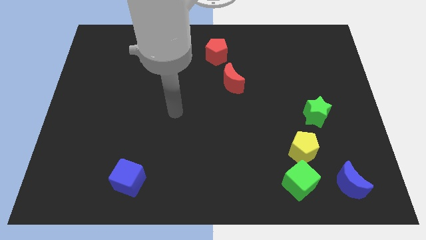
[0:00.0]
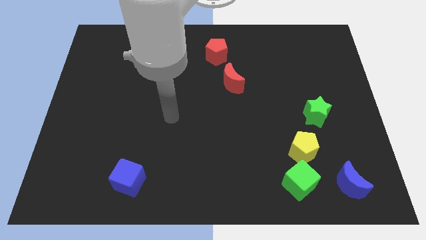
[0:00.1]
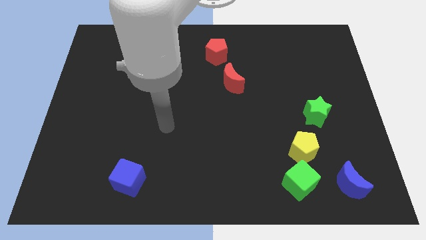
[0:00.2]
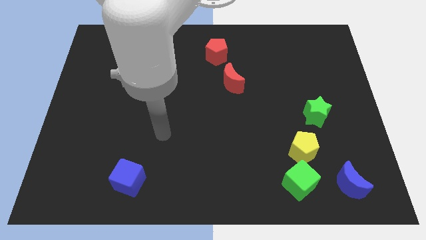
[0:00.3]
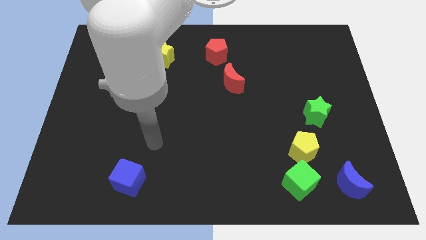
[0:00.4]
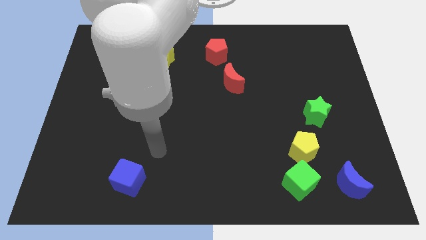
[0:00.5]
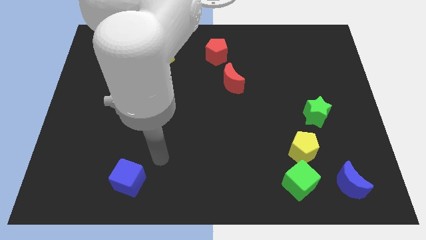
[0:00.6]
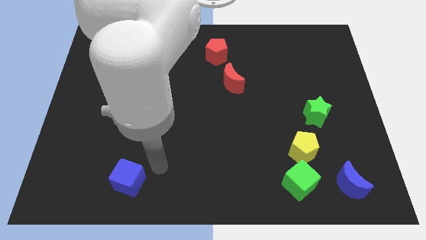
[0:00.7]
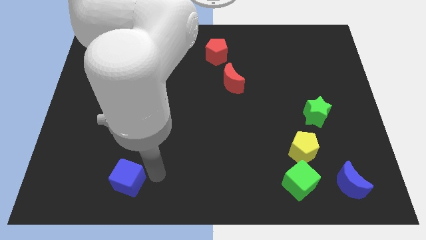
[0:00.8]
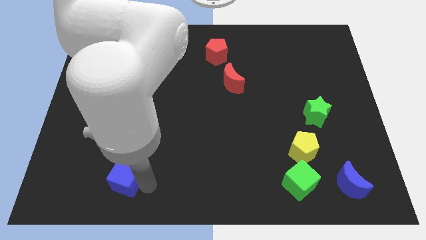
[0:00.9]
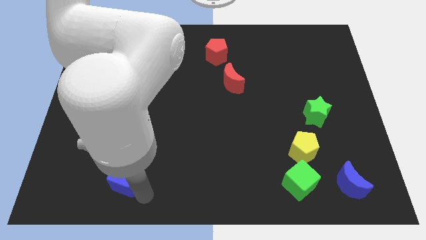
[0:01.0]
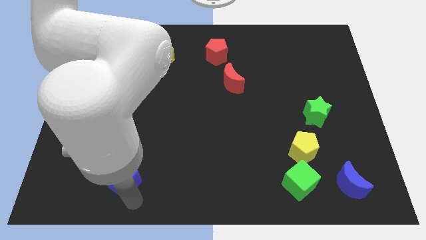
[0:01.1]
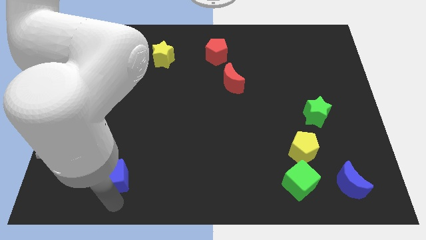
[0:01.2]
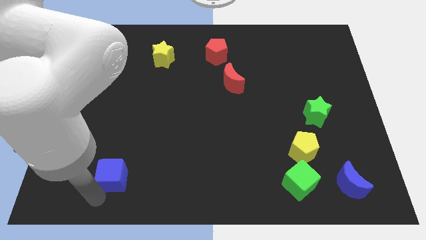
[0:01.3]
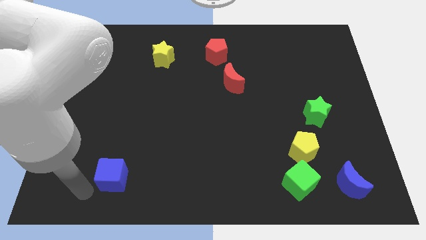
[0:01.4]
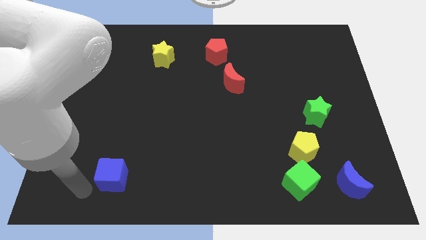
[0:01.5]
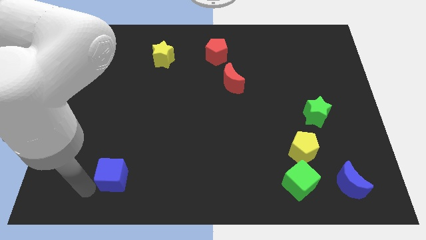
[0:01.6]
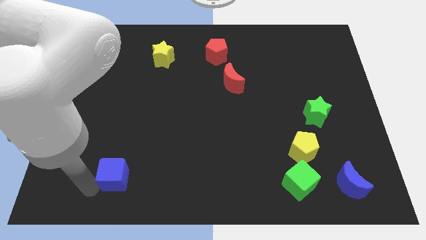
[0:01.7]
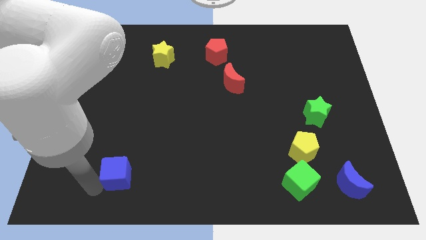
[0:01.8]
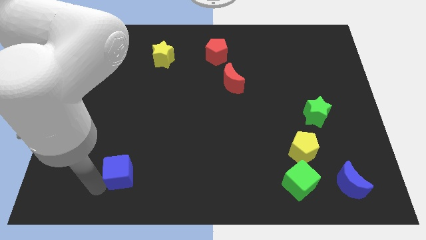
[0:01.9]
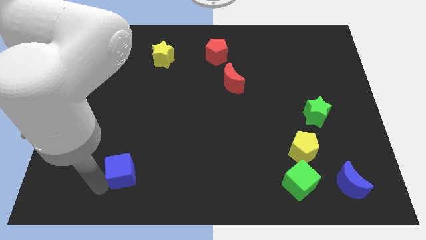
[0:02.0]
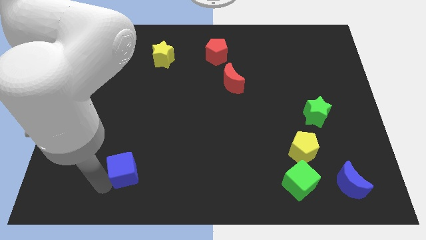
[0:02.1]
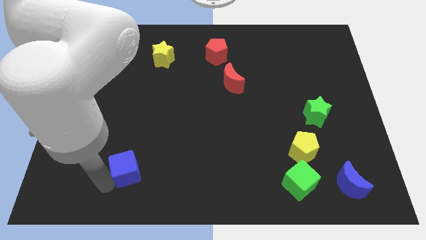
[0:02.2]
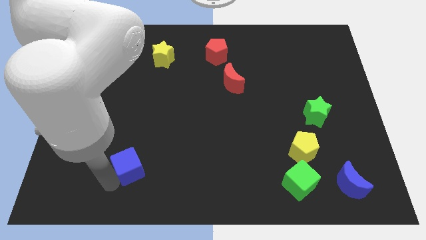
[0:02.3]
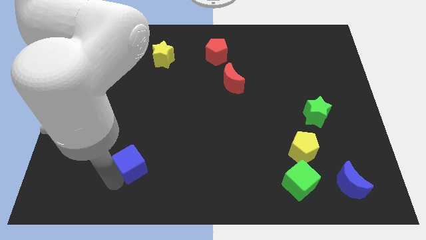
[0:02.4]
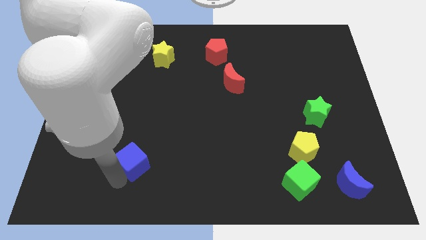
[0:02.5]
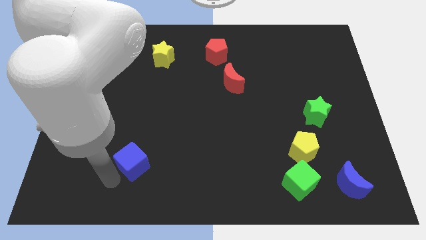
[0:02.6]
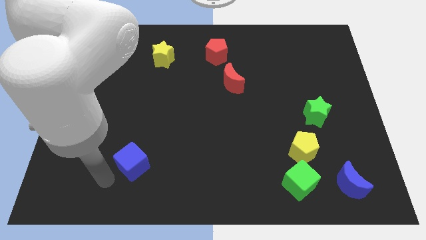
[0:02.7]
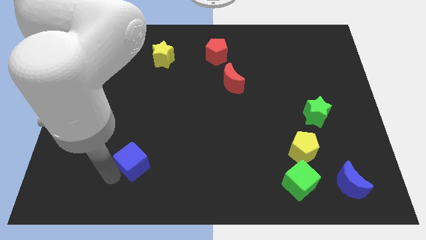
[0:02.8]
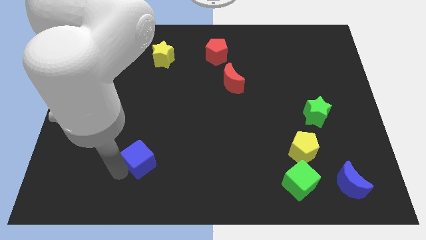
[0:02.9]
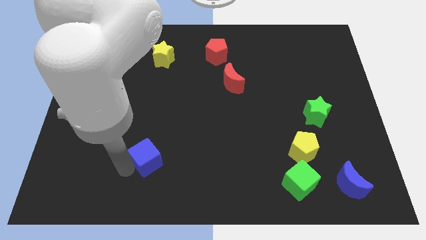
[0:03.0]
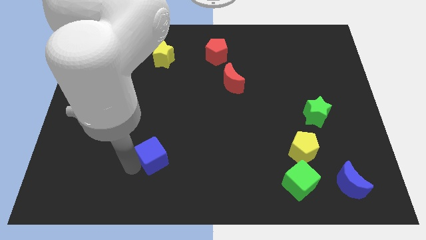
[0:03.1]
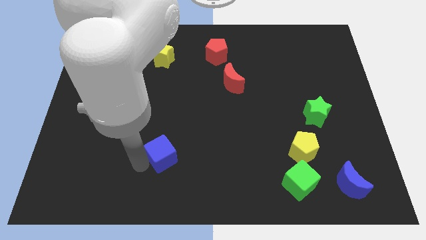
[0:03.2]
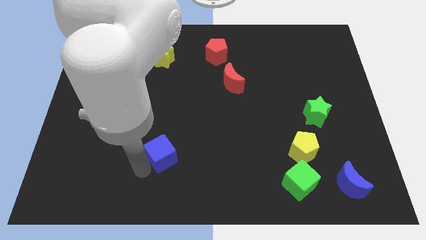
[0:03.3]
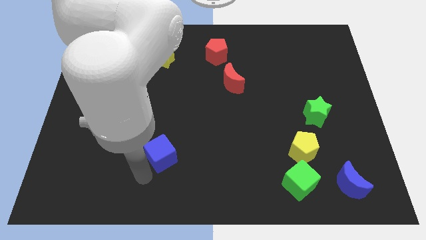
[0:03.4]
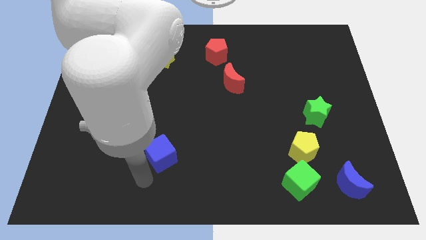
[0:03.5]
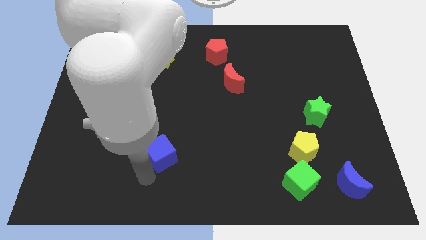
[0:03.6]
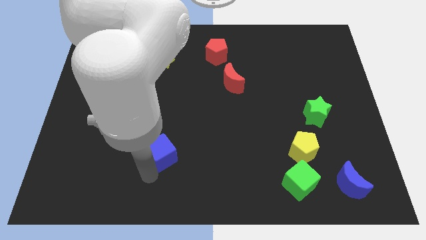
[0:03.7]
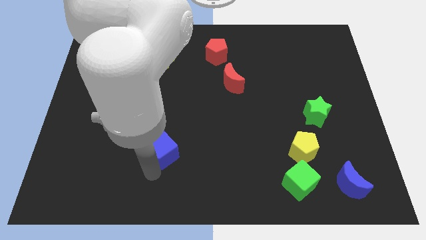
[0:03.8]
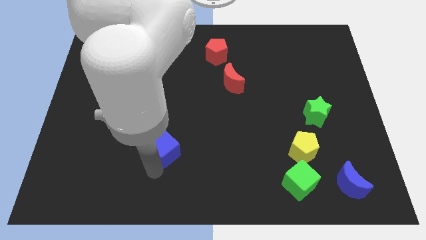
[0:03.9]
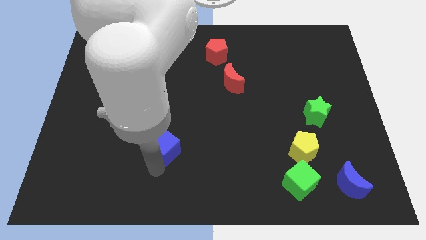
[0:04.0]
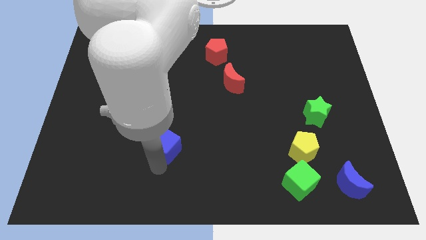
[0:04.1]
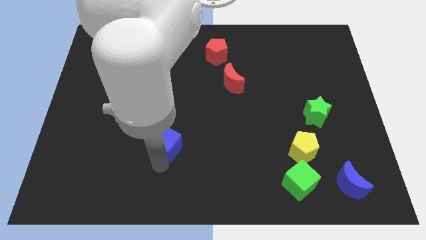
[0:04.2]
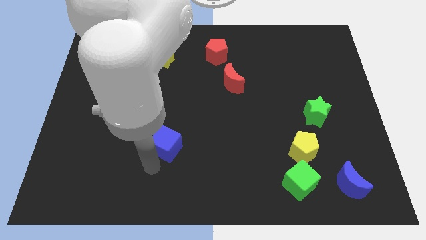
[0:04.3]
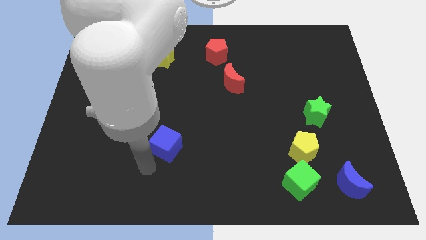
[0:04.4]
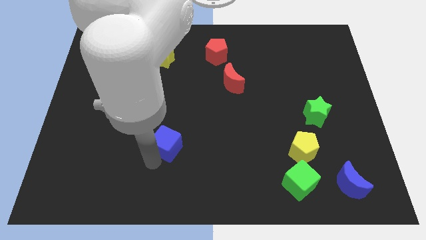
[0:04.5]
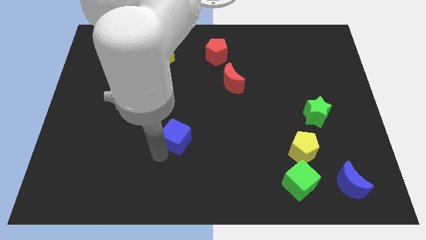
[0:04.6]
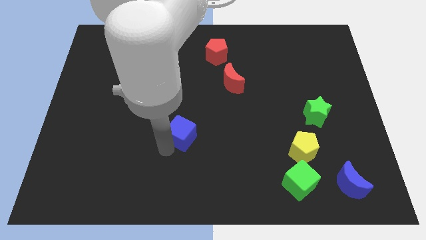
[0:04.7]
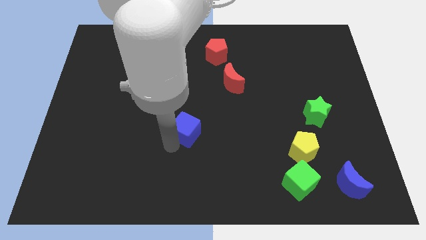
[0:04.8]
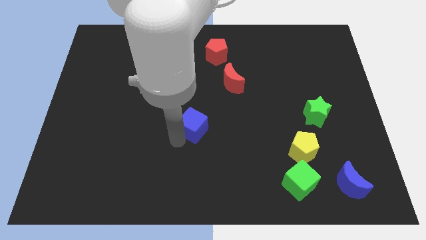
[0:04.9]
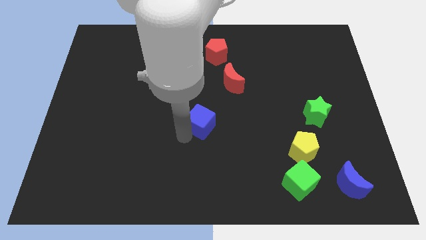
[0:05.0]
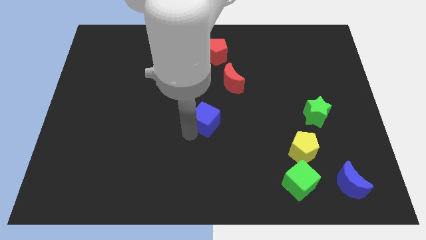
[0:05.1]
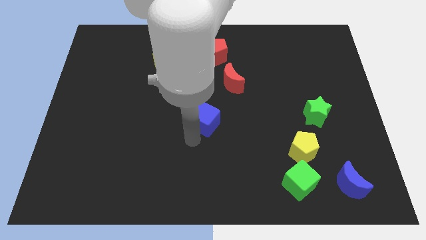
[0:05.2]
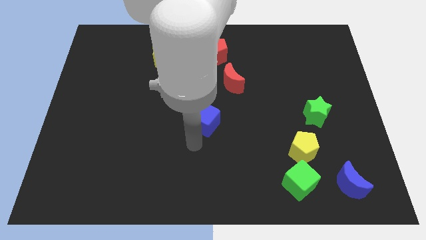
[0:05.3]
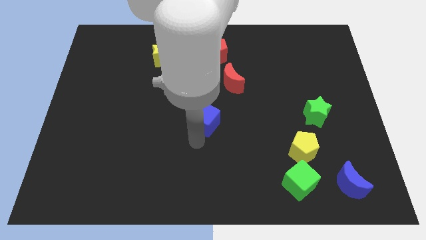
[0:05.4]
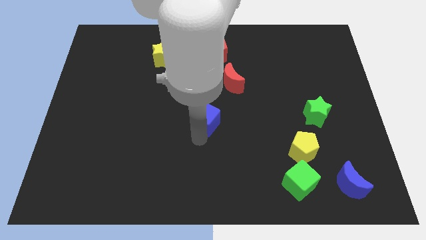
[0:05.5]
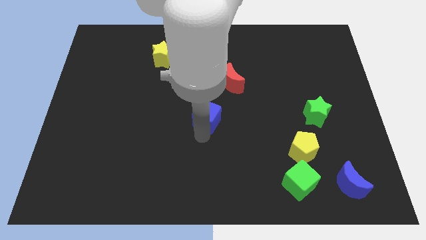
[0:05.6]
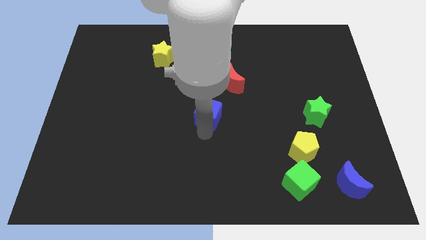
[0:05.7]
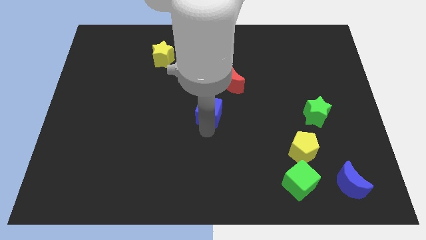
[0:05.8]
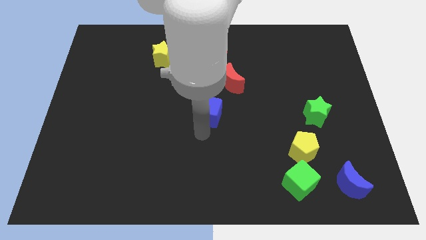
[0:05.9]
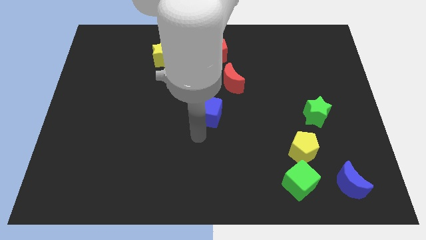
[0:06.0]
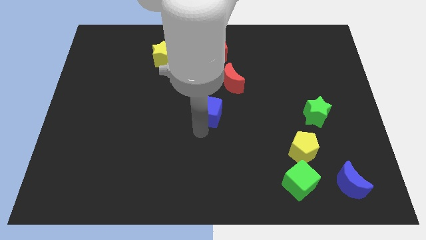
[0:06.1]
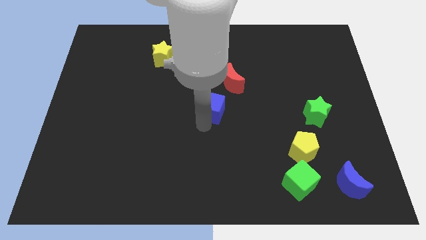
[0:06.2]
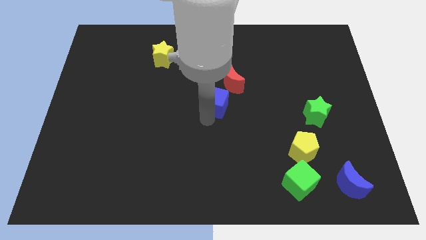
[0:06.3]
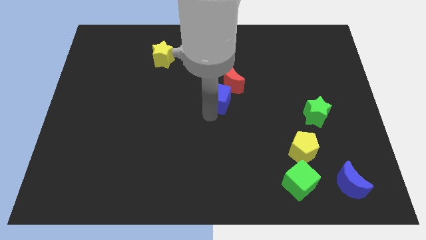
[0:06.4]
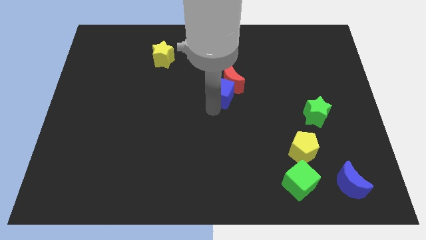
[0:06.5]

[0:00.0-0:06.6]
push the blue cube close to the red moon
